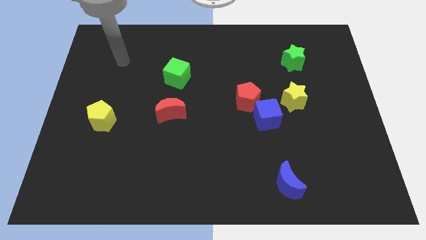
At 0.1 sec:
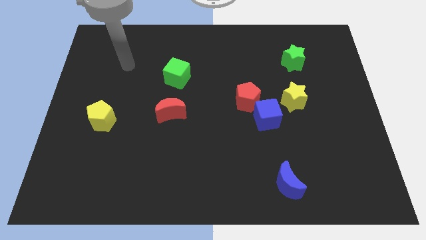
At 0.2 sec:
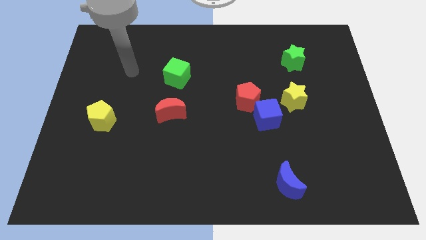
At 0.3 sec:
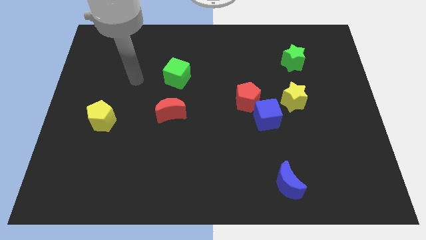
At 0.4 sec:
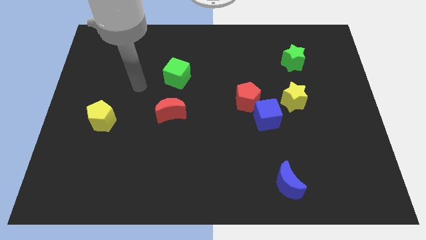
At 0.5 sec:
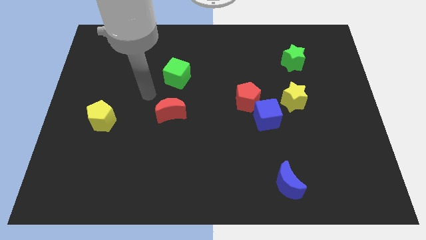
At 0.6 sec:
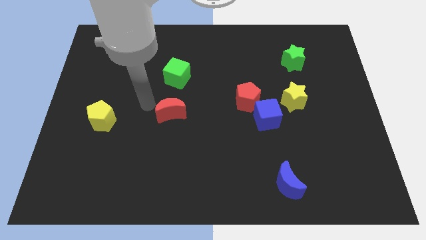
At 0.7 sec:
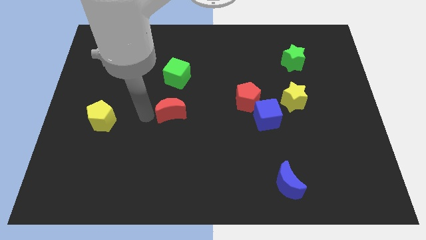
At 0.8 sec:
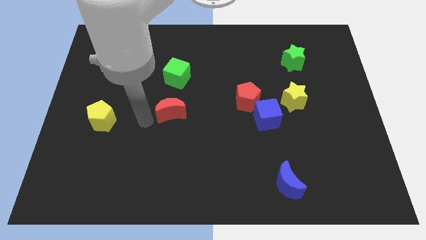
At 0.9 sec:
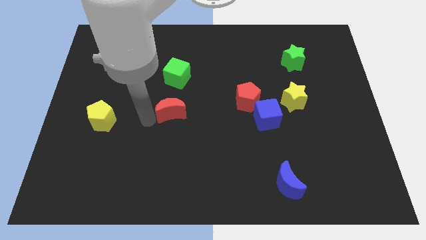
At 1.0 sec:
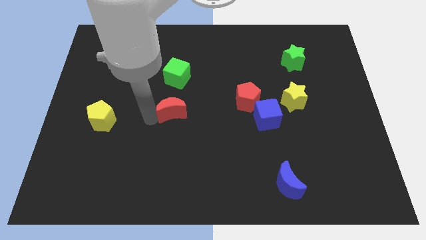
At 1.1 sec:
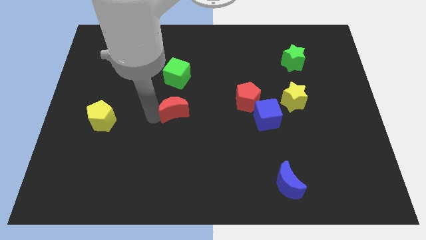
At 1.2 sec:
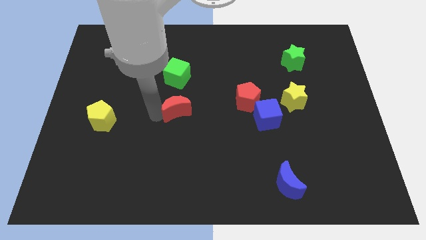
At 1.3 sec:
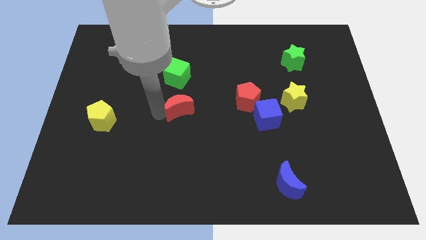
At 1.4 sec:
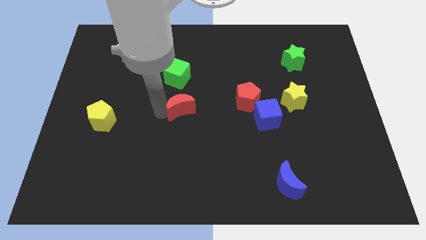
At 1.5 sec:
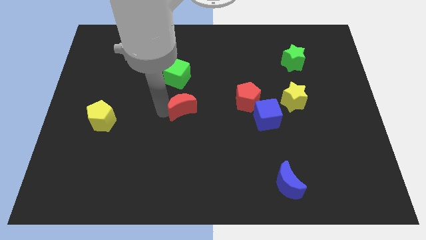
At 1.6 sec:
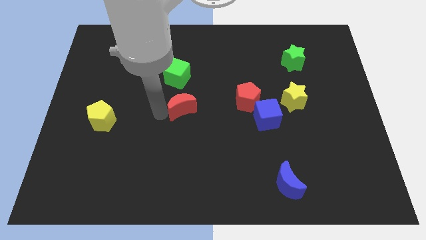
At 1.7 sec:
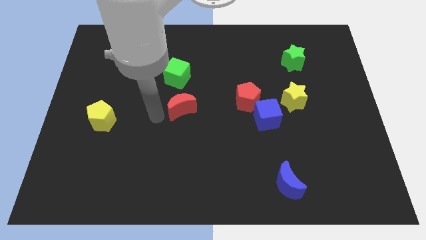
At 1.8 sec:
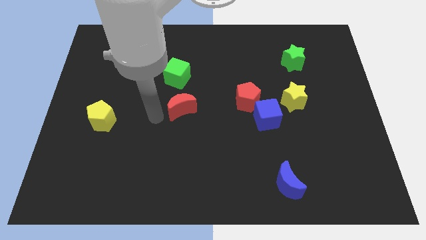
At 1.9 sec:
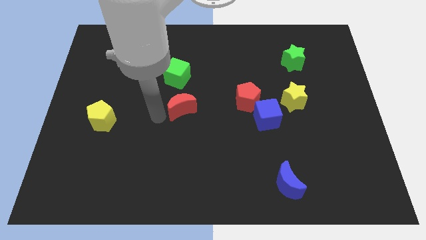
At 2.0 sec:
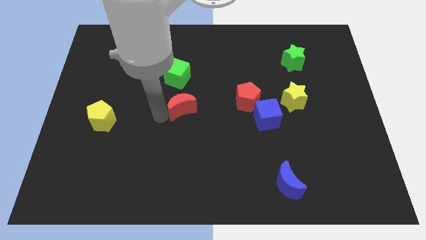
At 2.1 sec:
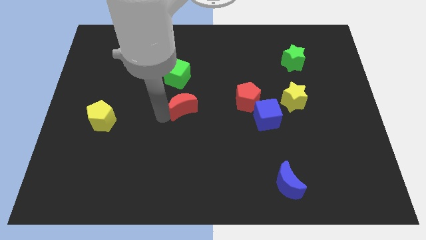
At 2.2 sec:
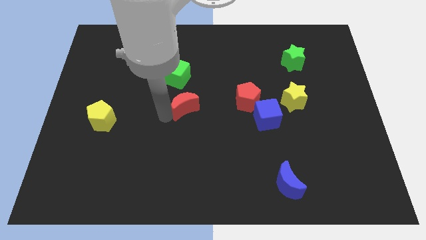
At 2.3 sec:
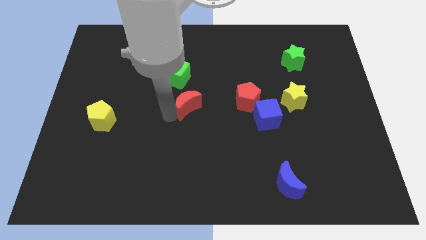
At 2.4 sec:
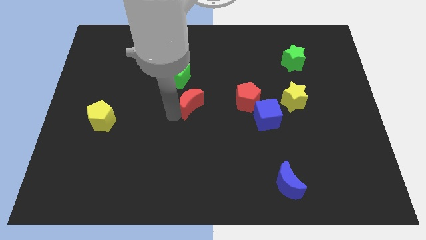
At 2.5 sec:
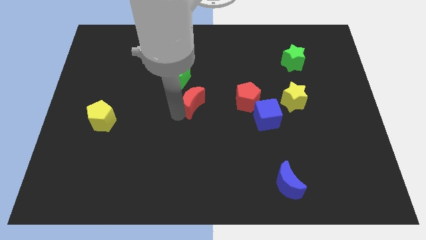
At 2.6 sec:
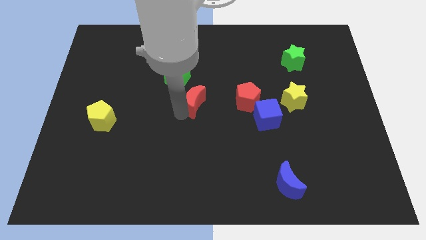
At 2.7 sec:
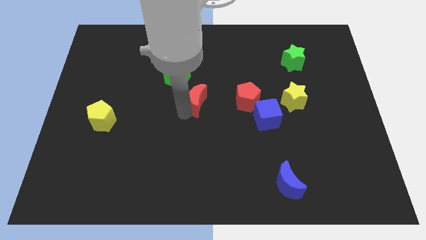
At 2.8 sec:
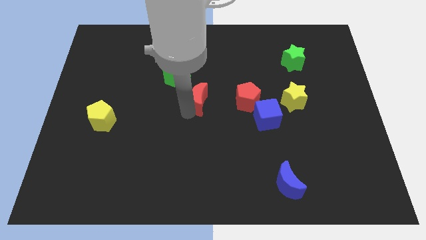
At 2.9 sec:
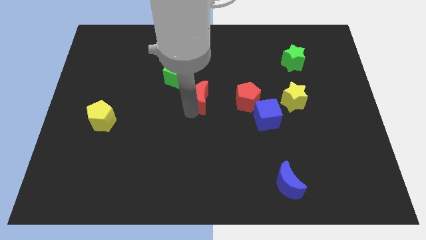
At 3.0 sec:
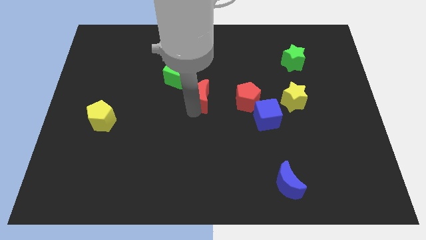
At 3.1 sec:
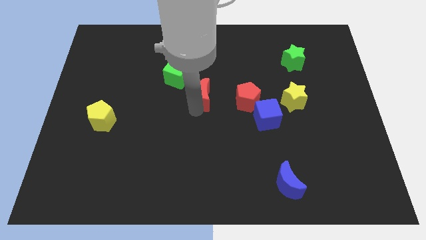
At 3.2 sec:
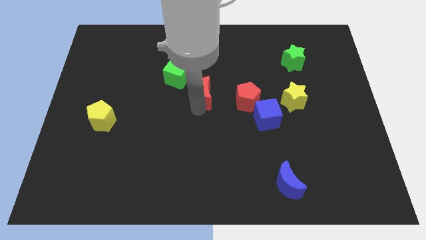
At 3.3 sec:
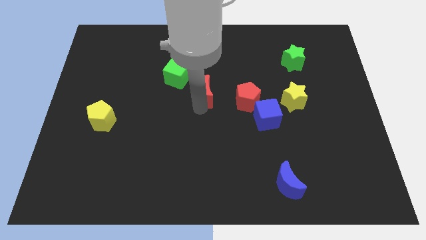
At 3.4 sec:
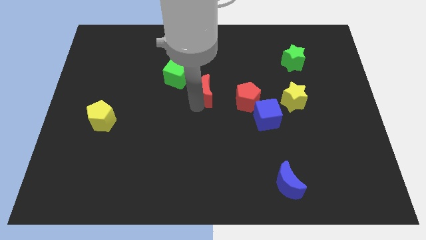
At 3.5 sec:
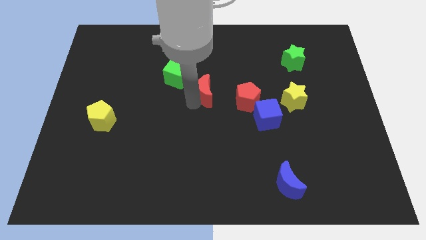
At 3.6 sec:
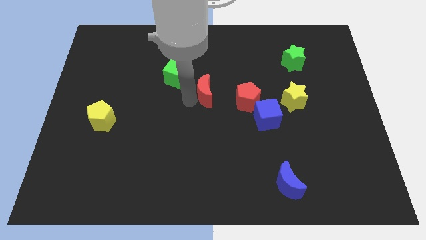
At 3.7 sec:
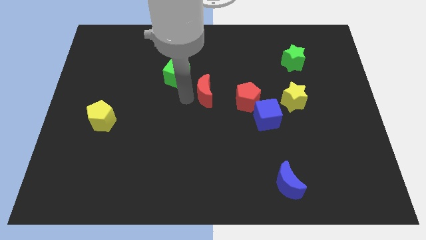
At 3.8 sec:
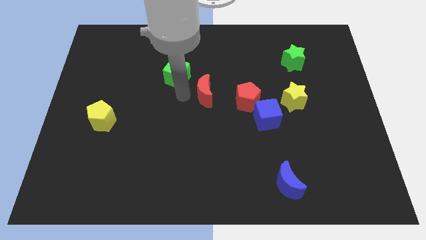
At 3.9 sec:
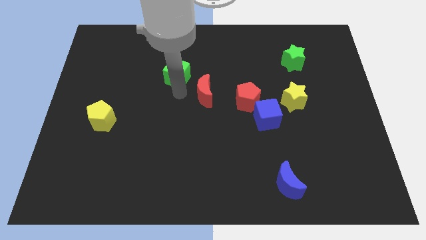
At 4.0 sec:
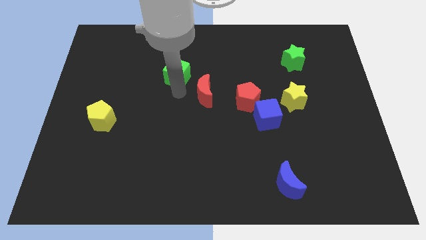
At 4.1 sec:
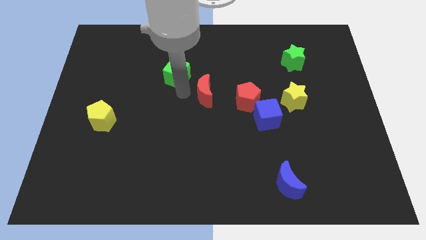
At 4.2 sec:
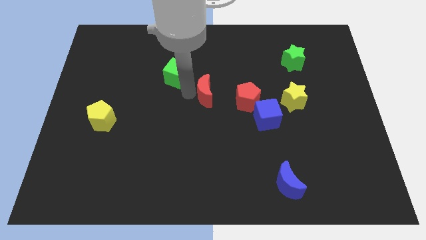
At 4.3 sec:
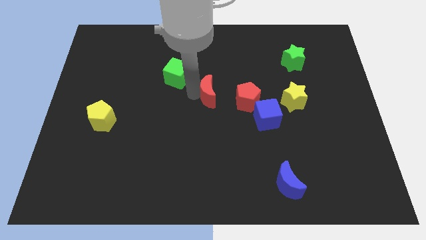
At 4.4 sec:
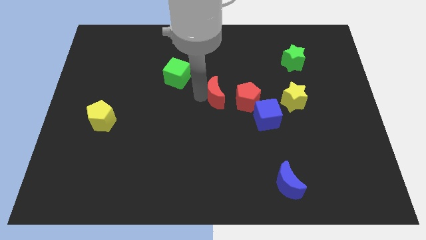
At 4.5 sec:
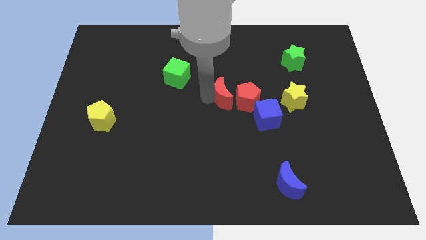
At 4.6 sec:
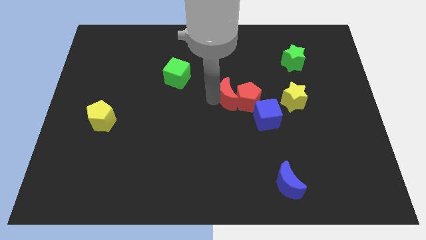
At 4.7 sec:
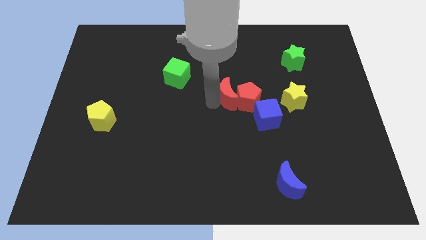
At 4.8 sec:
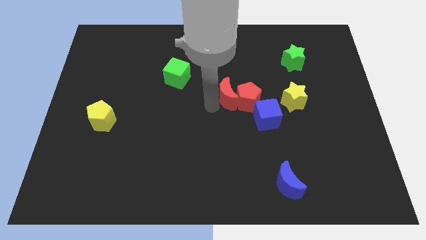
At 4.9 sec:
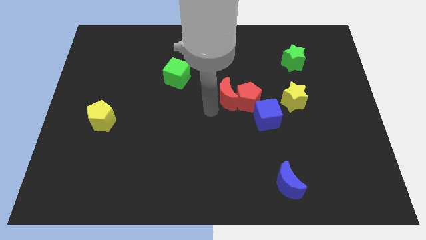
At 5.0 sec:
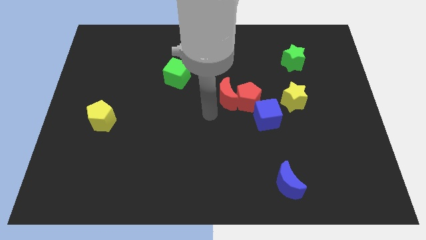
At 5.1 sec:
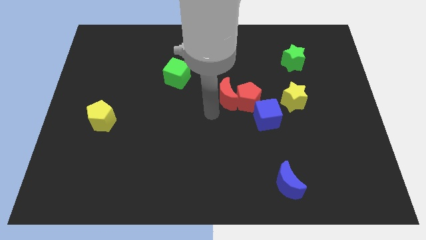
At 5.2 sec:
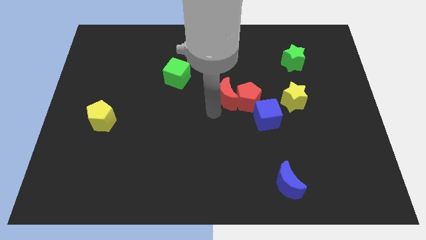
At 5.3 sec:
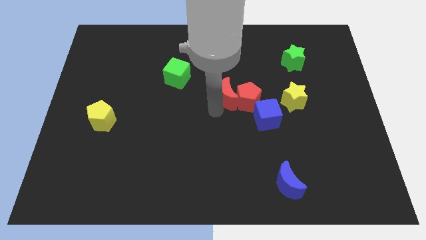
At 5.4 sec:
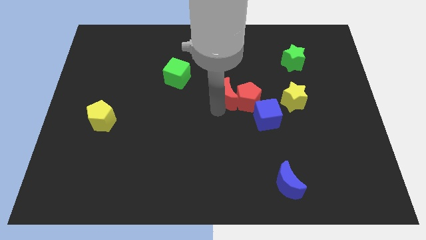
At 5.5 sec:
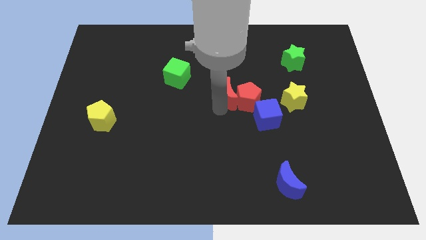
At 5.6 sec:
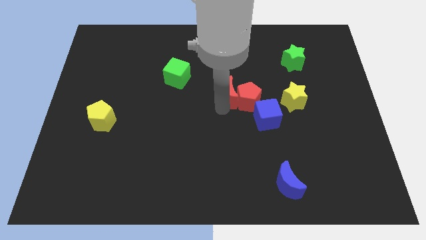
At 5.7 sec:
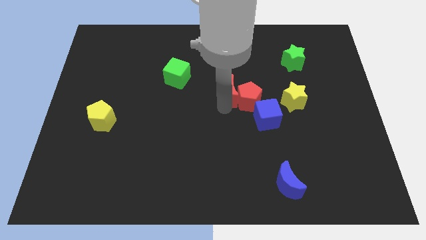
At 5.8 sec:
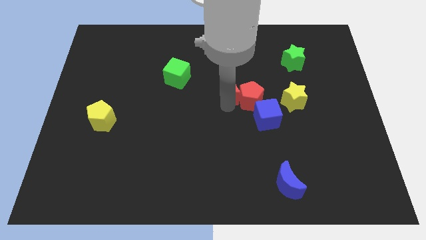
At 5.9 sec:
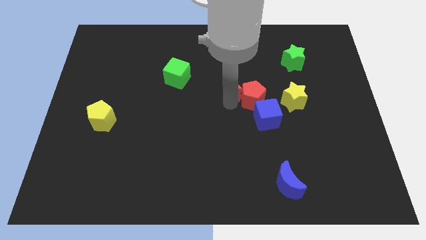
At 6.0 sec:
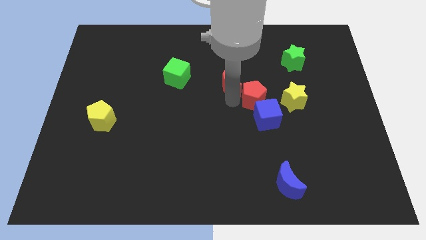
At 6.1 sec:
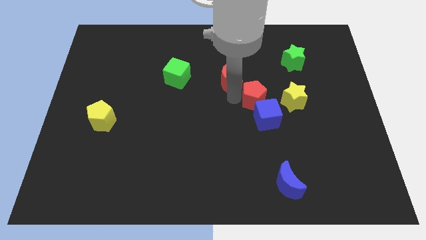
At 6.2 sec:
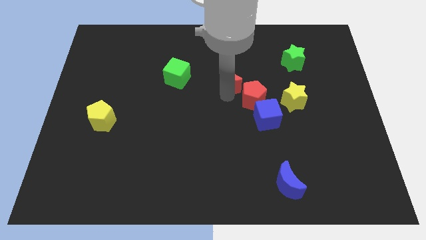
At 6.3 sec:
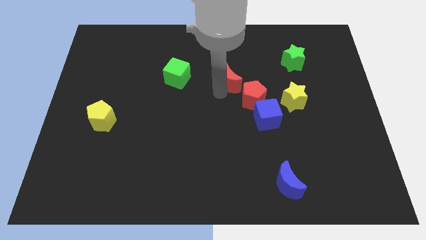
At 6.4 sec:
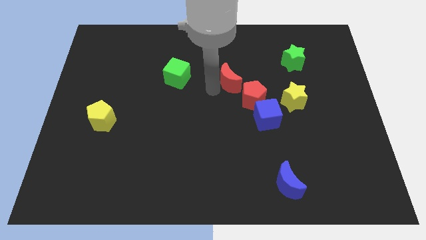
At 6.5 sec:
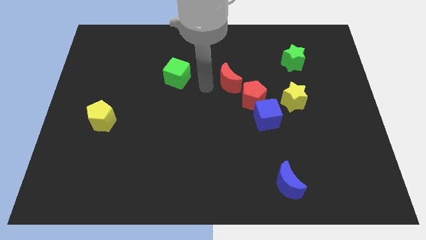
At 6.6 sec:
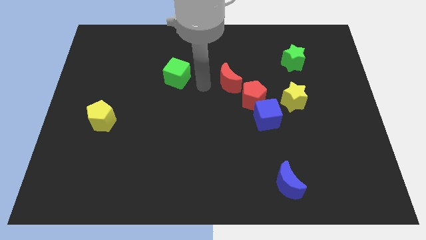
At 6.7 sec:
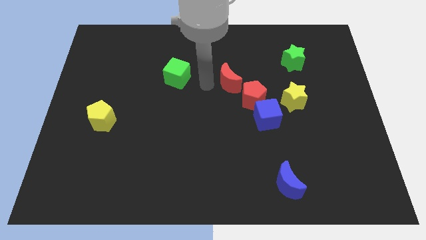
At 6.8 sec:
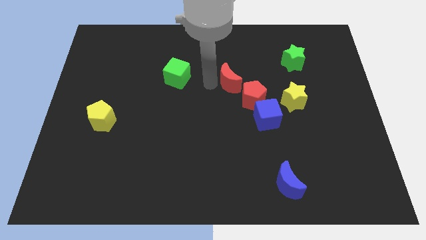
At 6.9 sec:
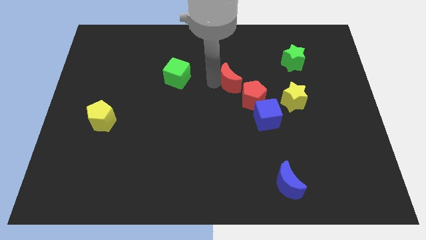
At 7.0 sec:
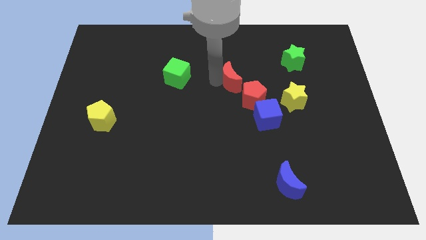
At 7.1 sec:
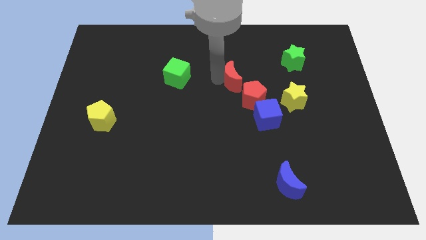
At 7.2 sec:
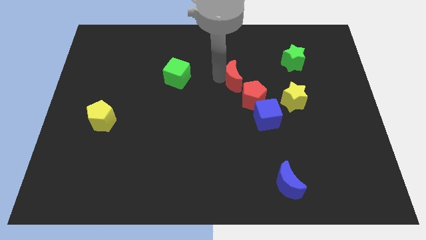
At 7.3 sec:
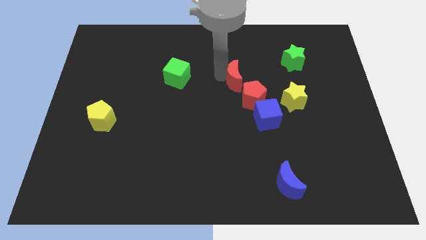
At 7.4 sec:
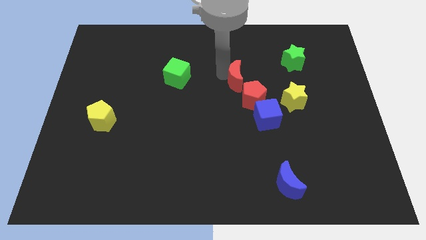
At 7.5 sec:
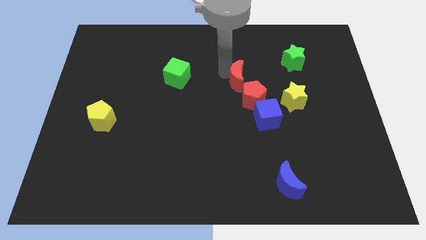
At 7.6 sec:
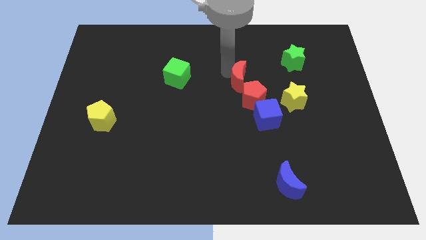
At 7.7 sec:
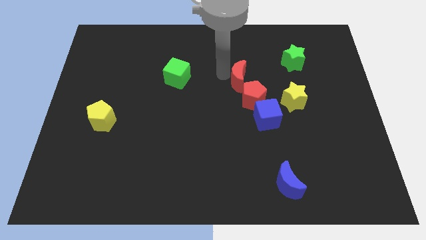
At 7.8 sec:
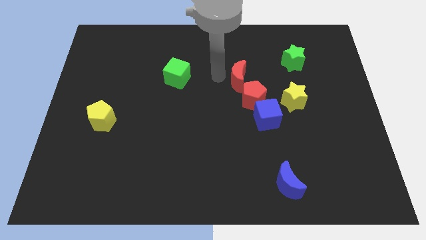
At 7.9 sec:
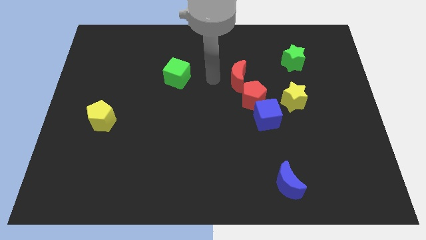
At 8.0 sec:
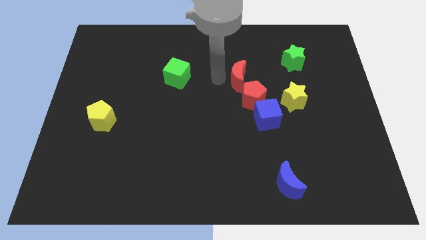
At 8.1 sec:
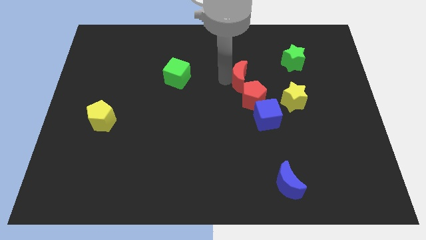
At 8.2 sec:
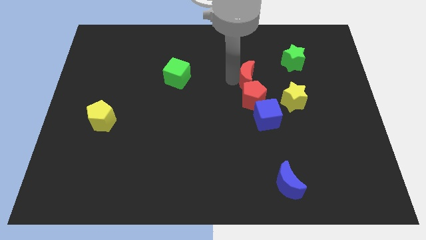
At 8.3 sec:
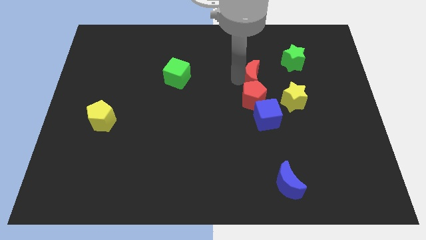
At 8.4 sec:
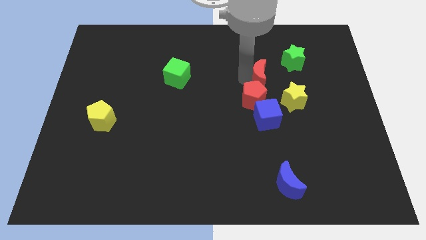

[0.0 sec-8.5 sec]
push the red moon to the bottom left of the green star
